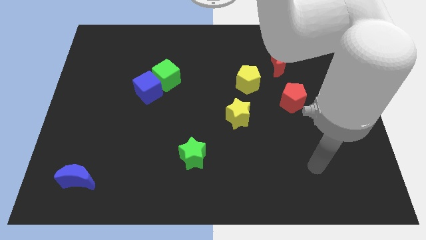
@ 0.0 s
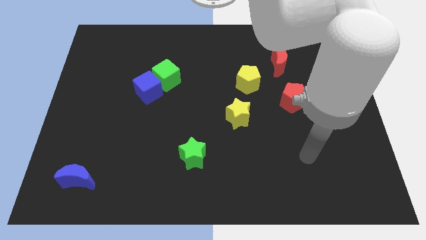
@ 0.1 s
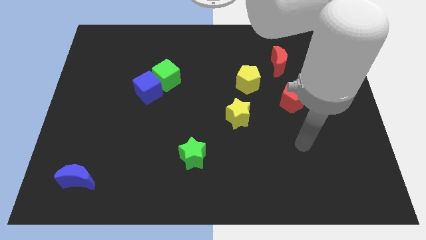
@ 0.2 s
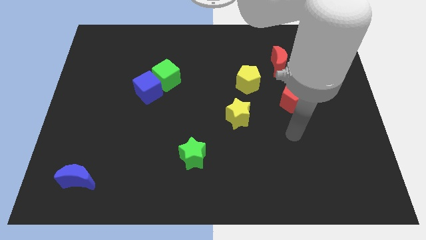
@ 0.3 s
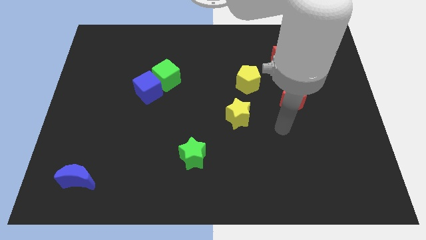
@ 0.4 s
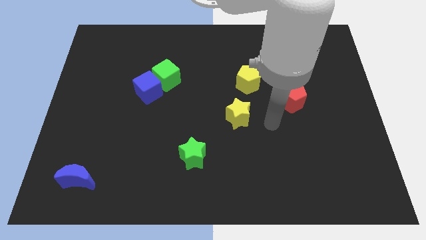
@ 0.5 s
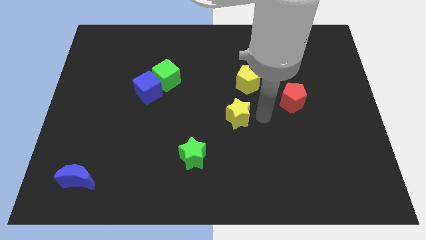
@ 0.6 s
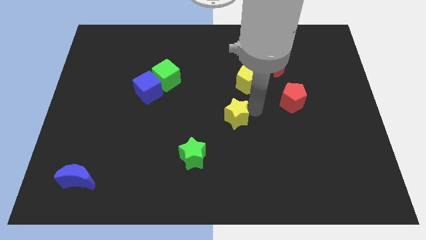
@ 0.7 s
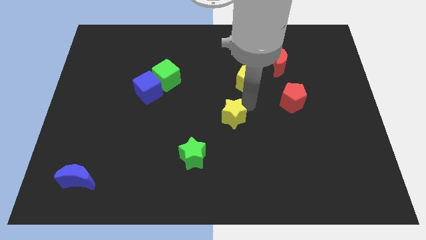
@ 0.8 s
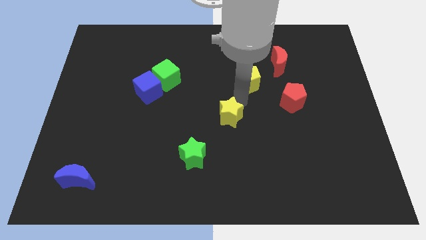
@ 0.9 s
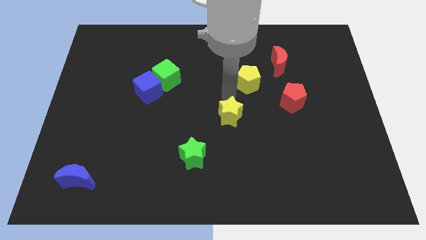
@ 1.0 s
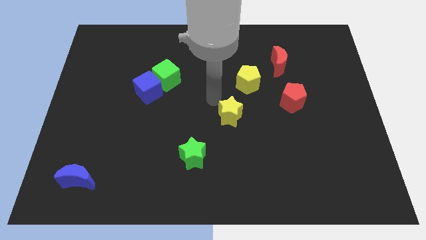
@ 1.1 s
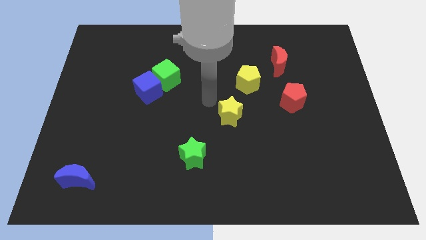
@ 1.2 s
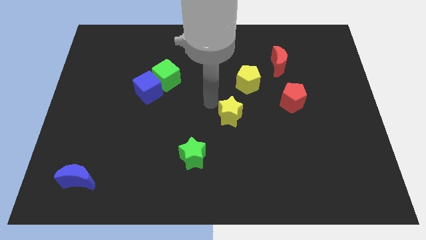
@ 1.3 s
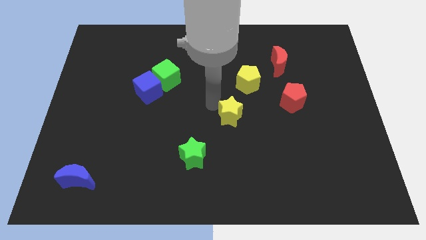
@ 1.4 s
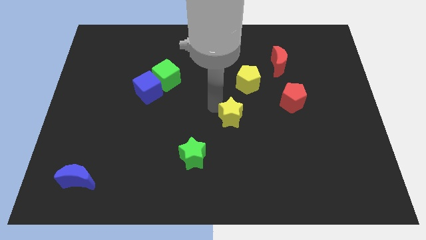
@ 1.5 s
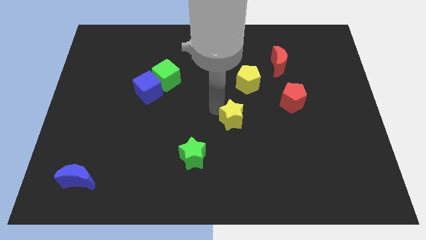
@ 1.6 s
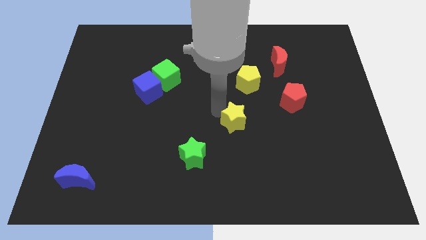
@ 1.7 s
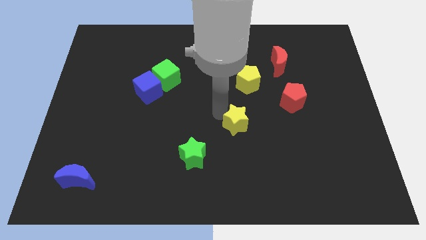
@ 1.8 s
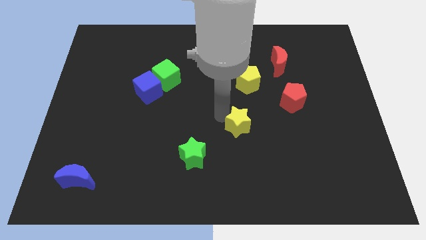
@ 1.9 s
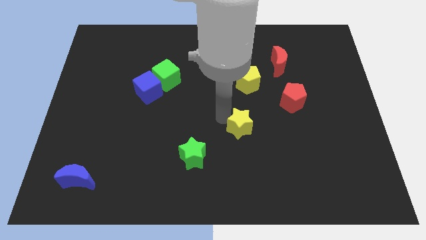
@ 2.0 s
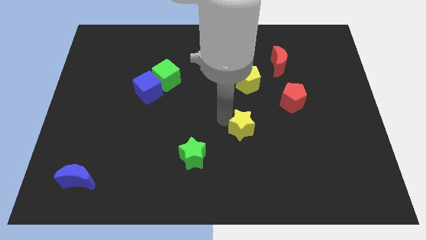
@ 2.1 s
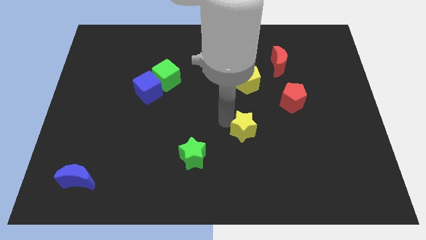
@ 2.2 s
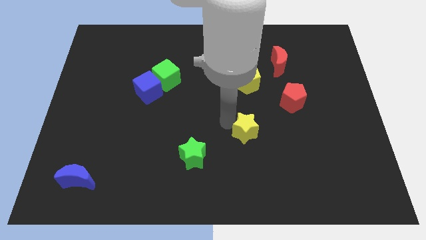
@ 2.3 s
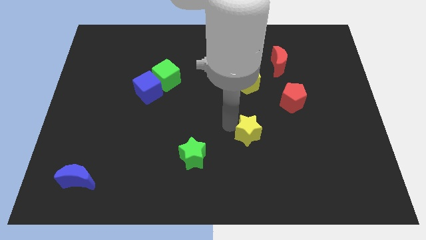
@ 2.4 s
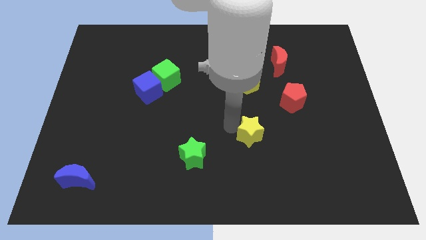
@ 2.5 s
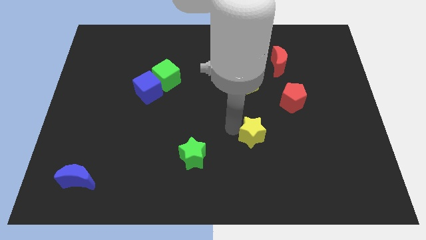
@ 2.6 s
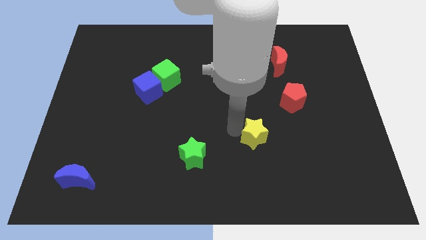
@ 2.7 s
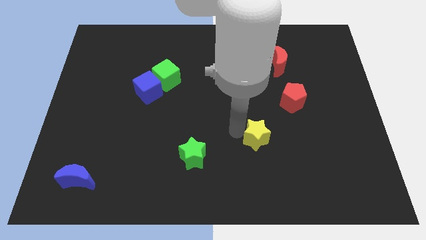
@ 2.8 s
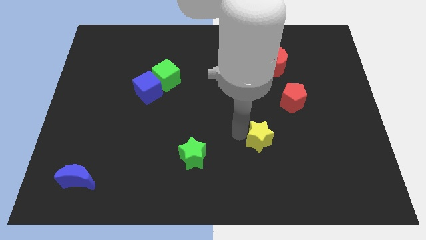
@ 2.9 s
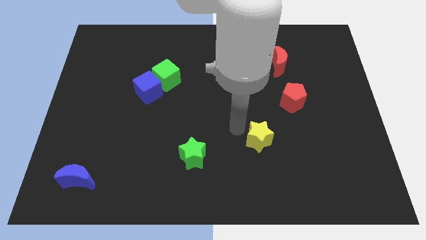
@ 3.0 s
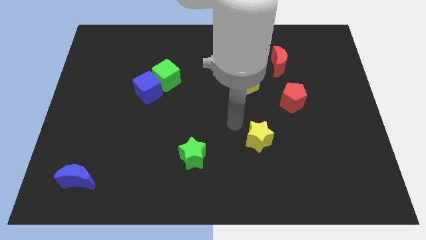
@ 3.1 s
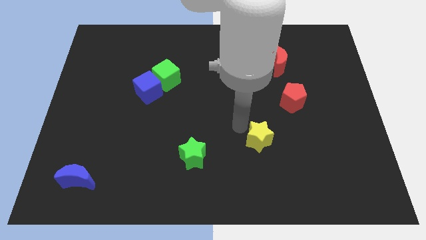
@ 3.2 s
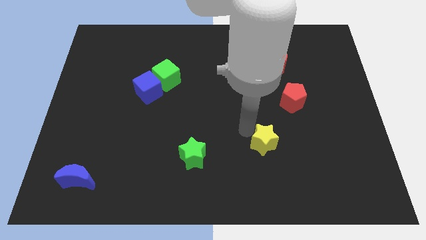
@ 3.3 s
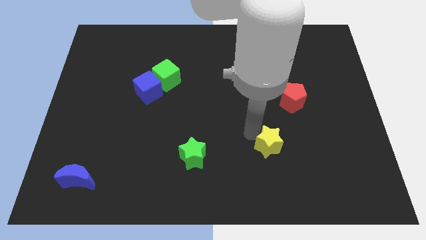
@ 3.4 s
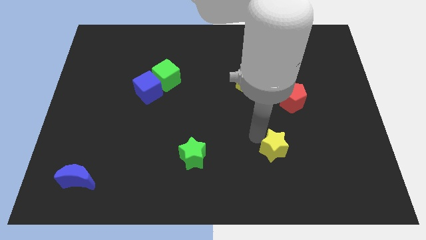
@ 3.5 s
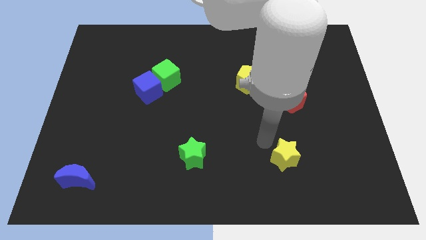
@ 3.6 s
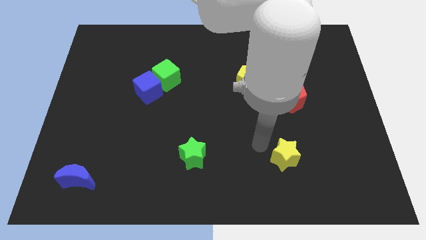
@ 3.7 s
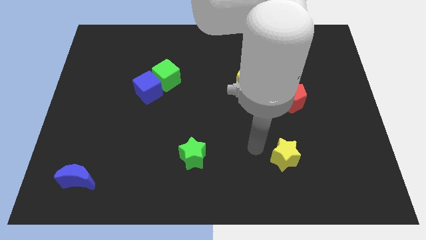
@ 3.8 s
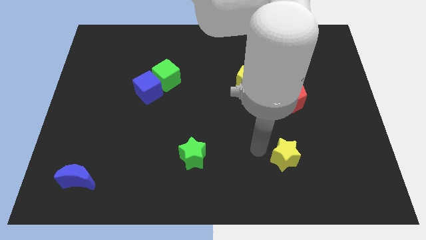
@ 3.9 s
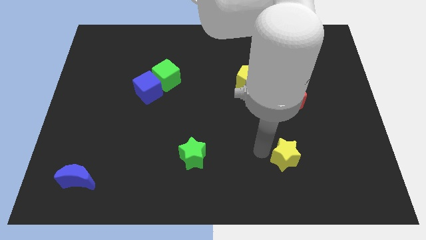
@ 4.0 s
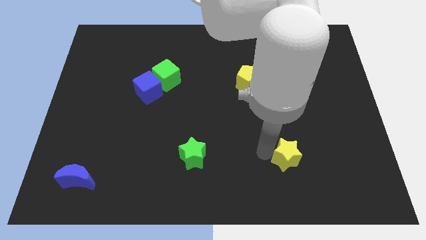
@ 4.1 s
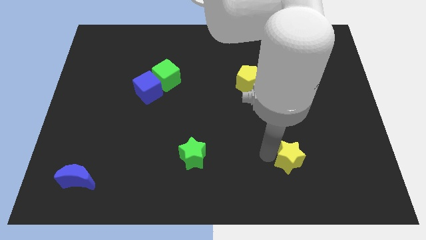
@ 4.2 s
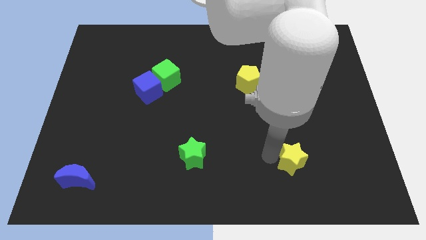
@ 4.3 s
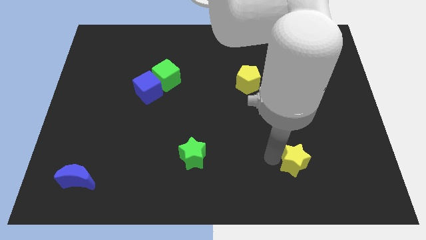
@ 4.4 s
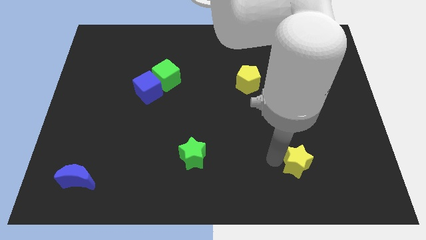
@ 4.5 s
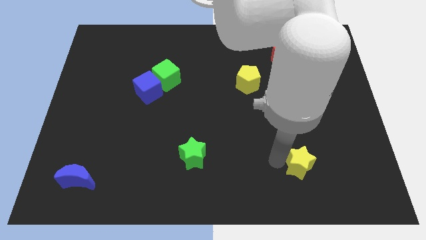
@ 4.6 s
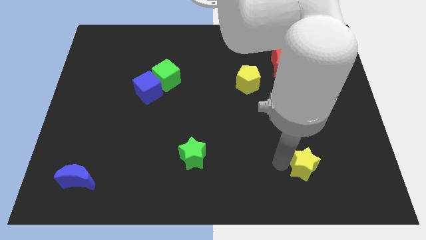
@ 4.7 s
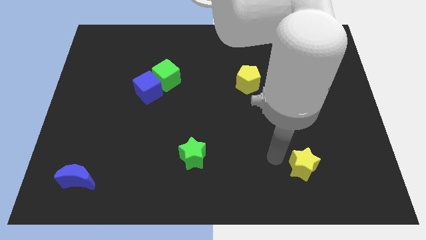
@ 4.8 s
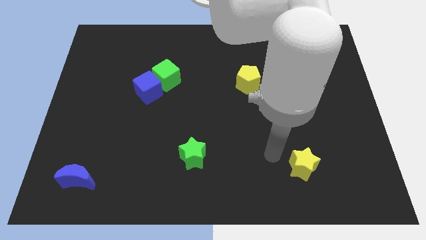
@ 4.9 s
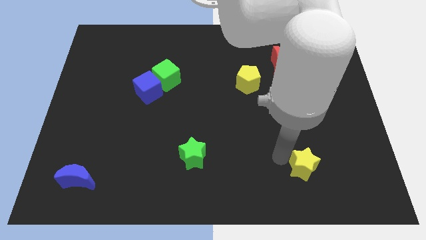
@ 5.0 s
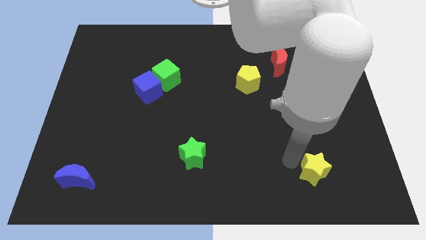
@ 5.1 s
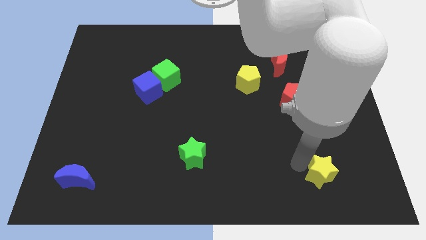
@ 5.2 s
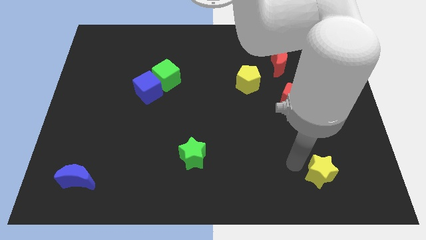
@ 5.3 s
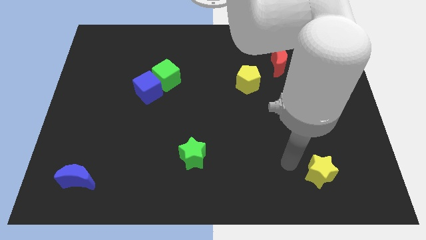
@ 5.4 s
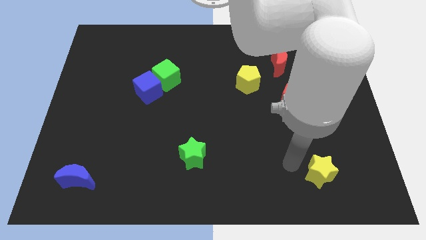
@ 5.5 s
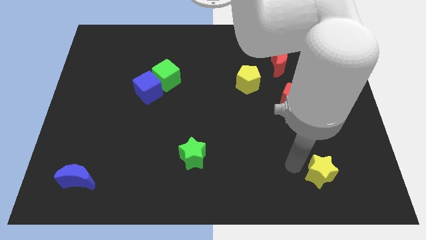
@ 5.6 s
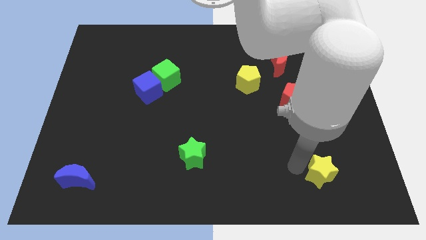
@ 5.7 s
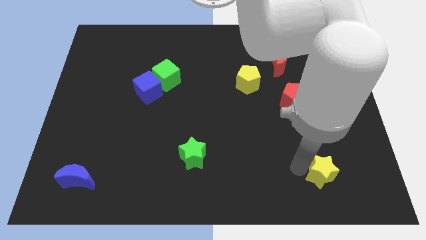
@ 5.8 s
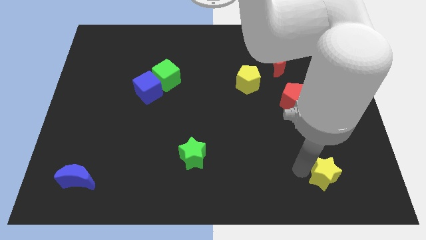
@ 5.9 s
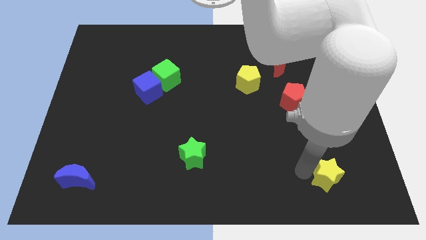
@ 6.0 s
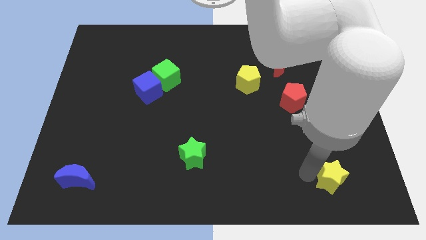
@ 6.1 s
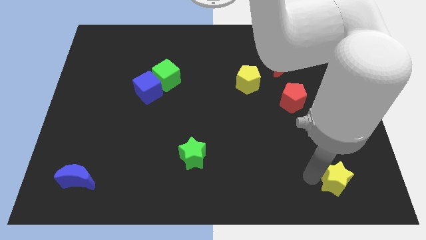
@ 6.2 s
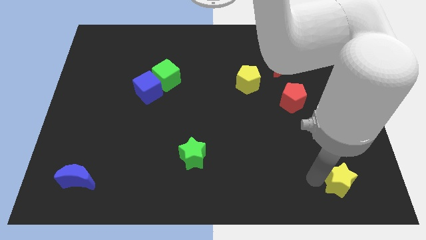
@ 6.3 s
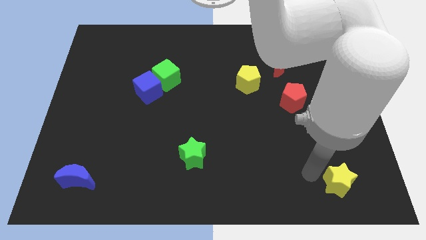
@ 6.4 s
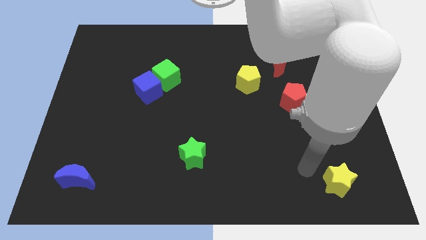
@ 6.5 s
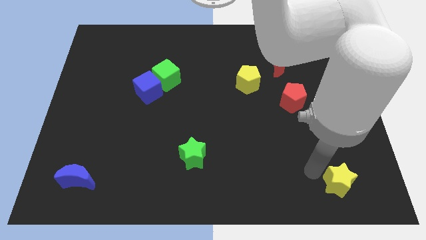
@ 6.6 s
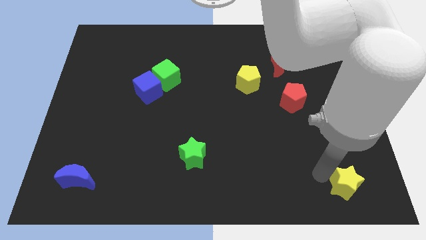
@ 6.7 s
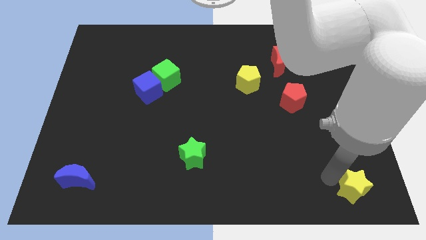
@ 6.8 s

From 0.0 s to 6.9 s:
put the yellow star to the bottom right of the board
